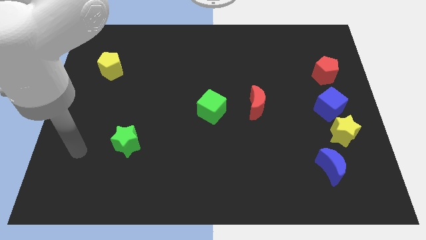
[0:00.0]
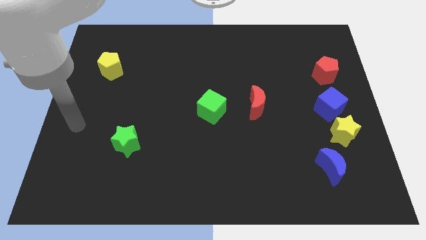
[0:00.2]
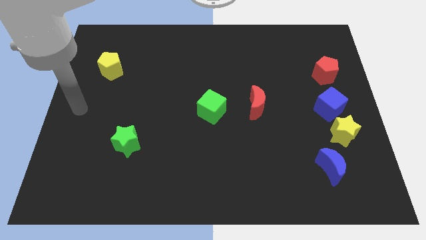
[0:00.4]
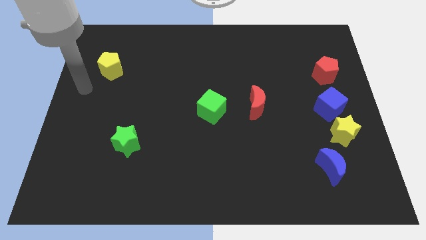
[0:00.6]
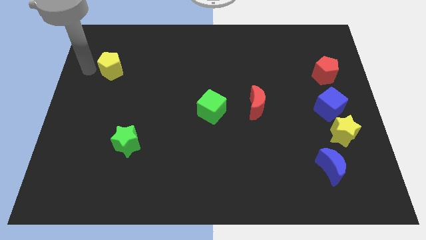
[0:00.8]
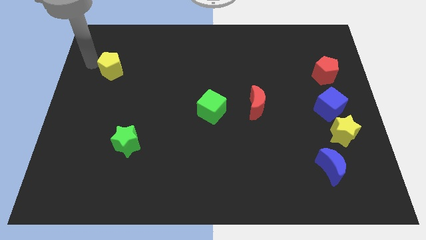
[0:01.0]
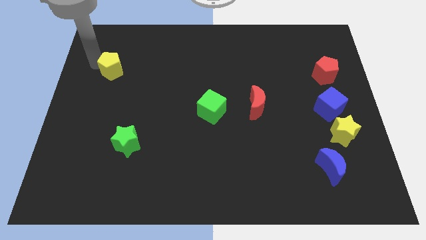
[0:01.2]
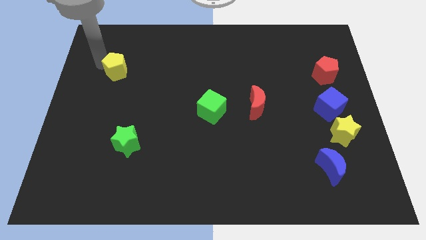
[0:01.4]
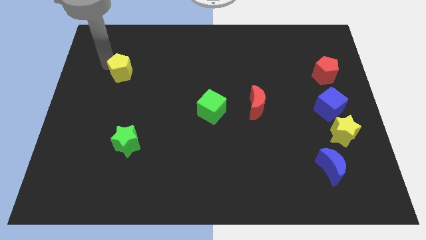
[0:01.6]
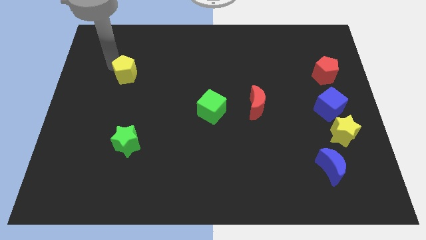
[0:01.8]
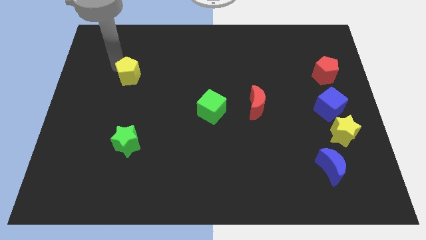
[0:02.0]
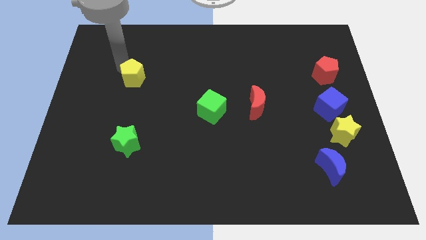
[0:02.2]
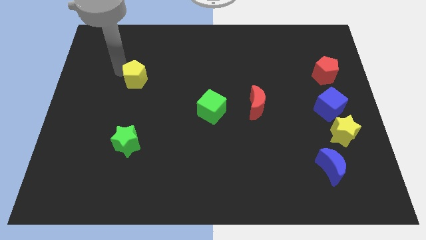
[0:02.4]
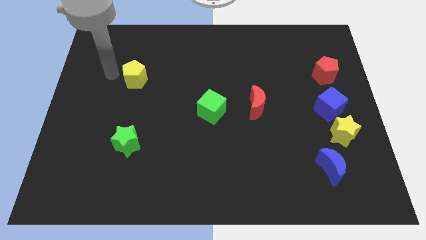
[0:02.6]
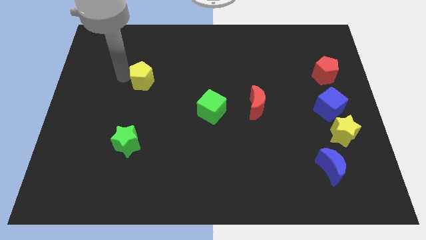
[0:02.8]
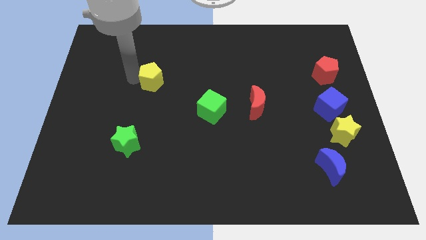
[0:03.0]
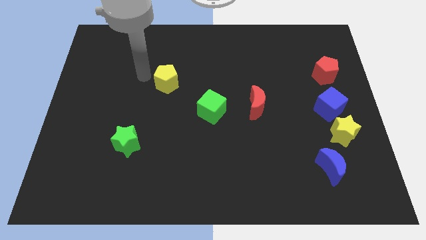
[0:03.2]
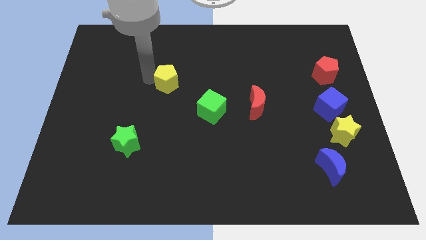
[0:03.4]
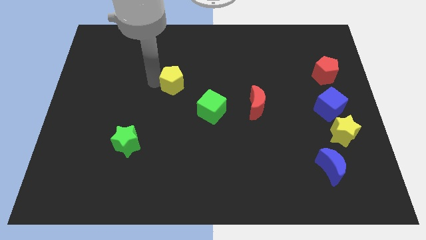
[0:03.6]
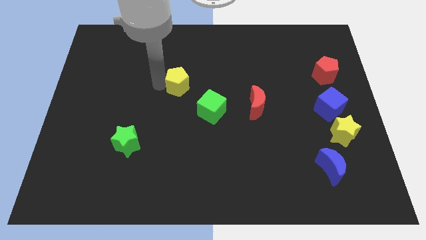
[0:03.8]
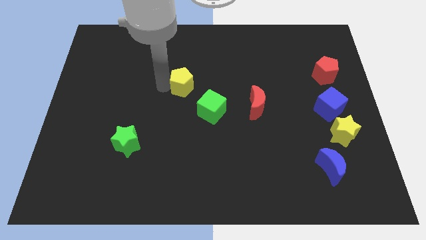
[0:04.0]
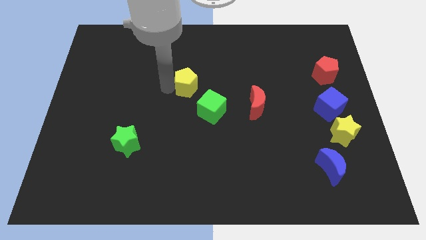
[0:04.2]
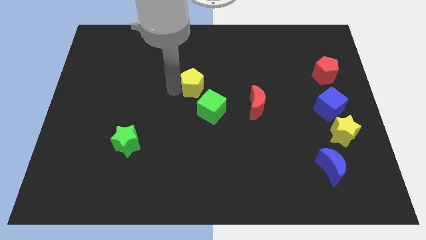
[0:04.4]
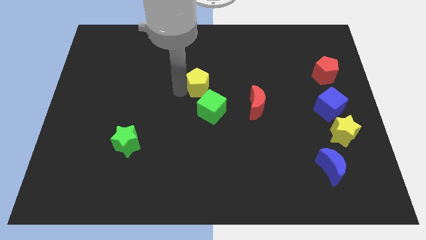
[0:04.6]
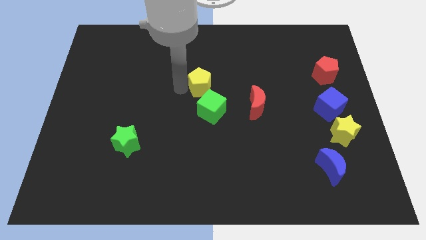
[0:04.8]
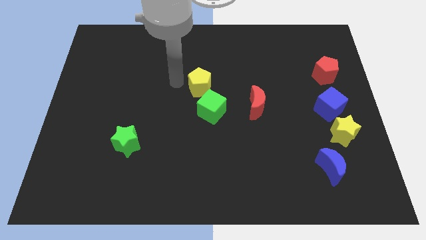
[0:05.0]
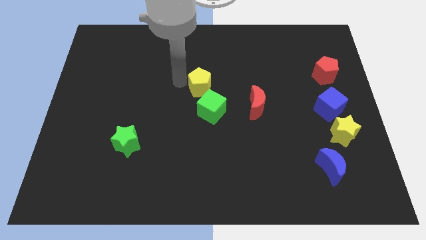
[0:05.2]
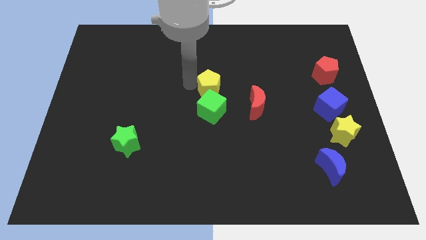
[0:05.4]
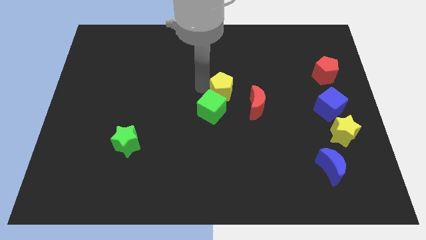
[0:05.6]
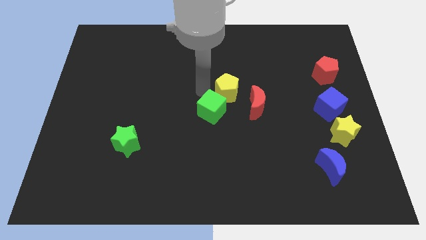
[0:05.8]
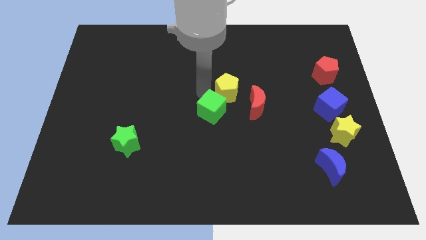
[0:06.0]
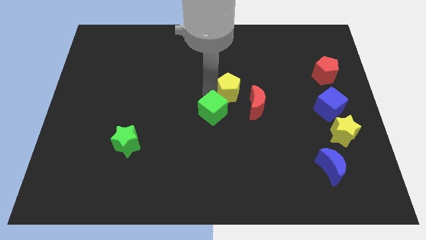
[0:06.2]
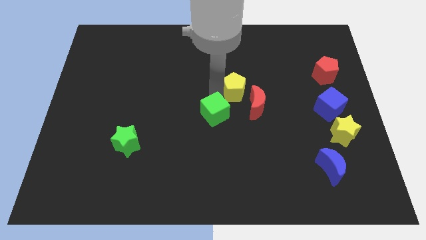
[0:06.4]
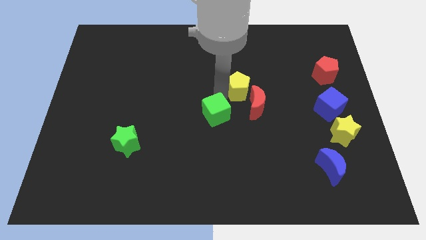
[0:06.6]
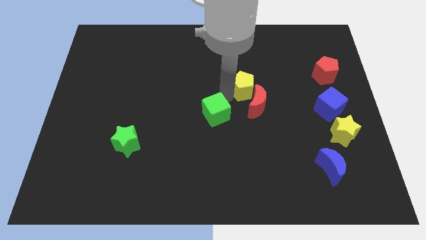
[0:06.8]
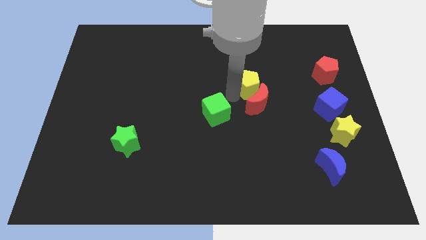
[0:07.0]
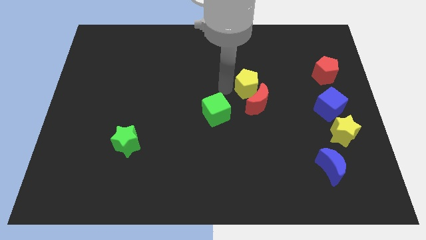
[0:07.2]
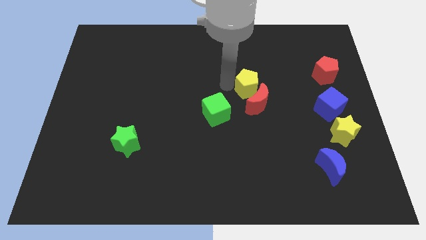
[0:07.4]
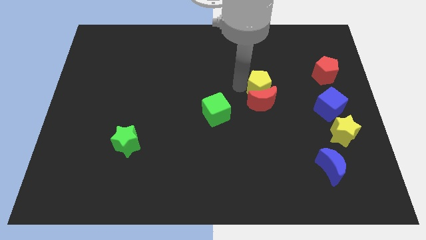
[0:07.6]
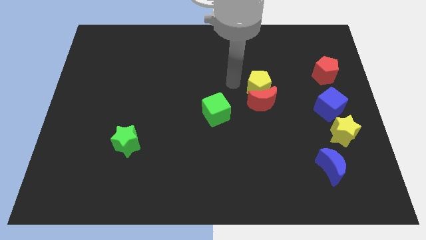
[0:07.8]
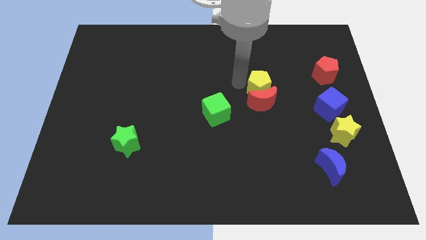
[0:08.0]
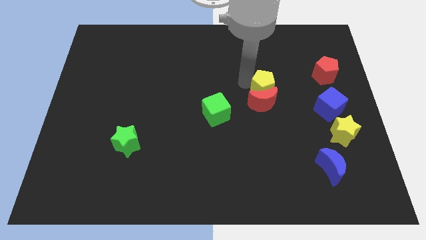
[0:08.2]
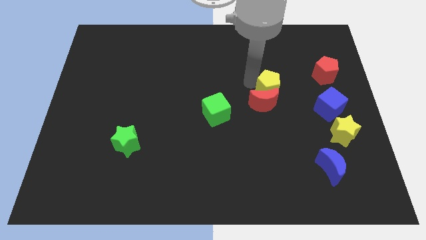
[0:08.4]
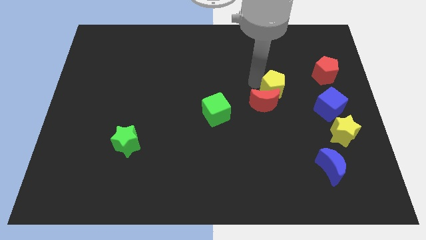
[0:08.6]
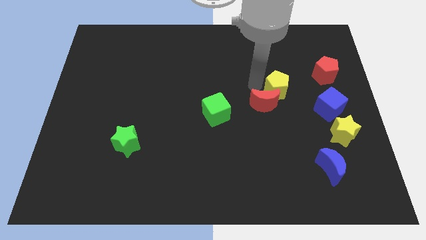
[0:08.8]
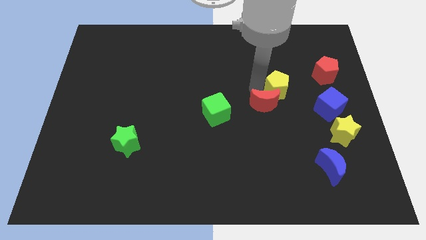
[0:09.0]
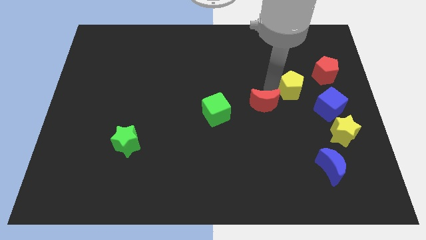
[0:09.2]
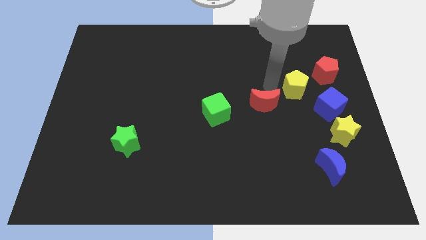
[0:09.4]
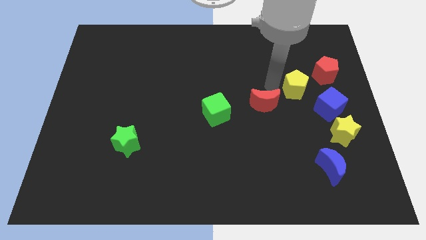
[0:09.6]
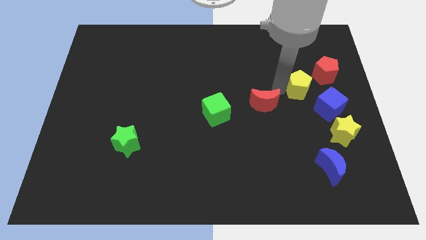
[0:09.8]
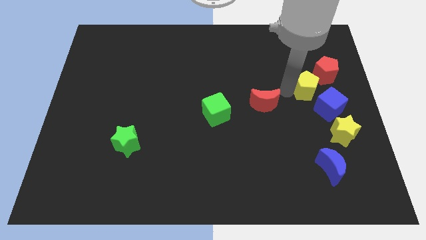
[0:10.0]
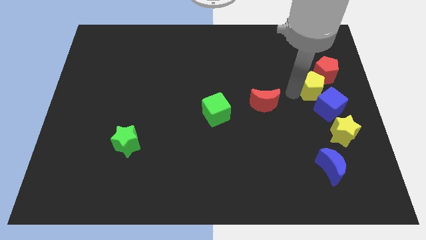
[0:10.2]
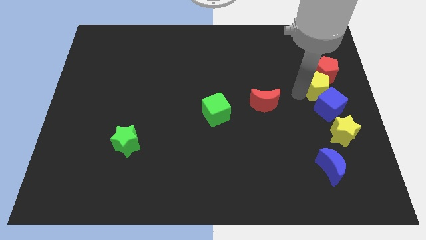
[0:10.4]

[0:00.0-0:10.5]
slide the yellow pentagon to the center right
